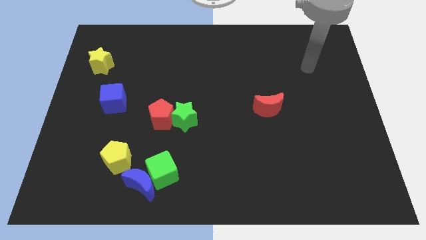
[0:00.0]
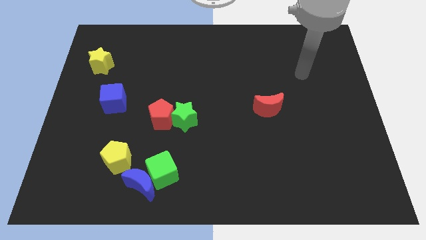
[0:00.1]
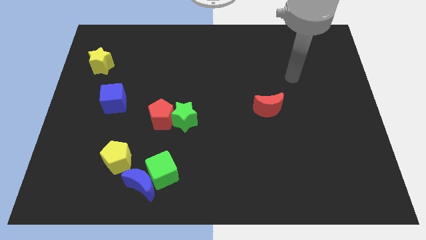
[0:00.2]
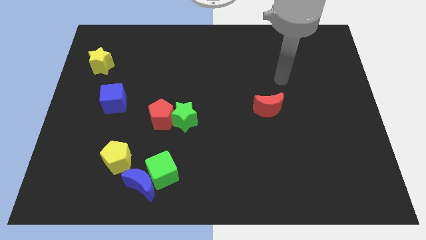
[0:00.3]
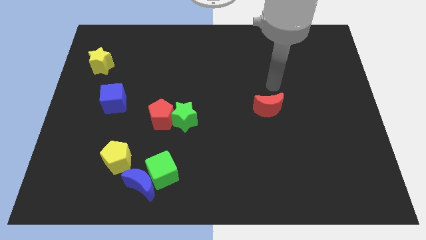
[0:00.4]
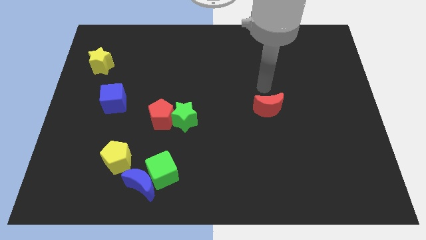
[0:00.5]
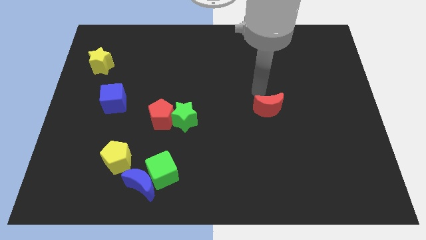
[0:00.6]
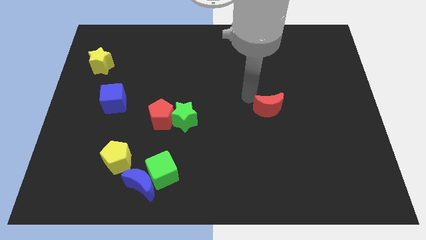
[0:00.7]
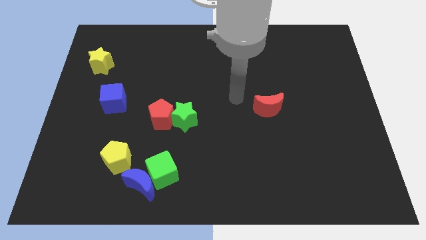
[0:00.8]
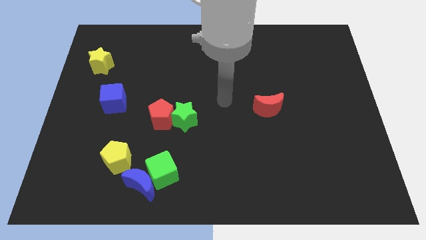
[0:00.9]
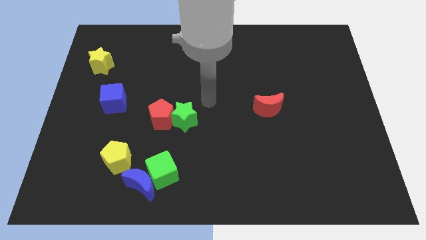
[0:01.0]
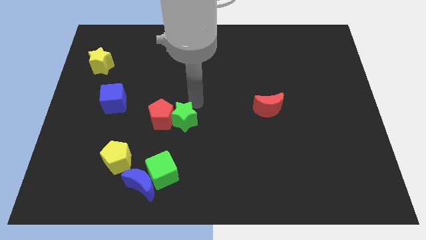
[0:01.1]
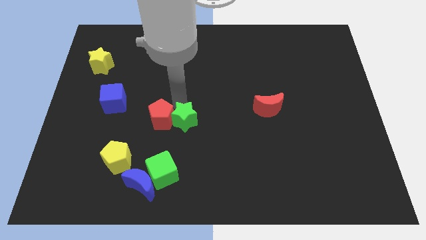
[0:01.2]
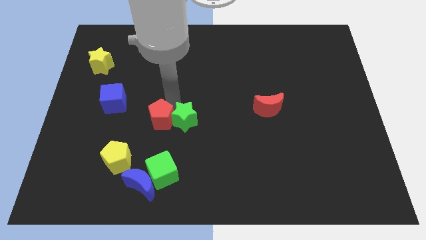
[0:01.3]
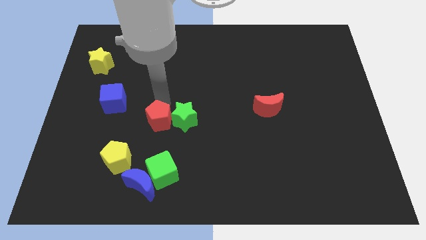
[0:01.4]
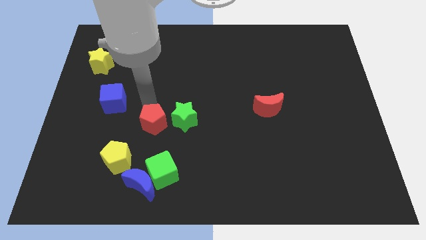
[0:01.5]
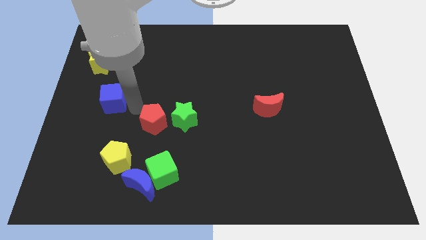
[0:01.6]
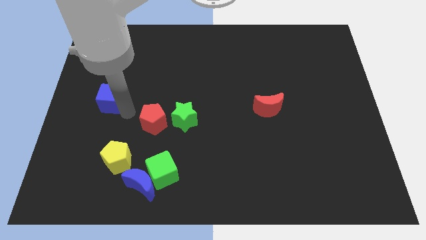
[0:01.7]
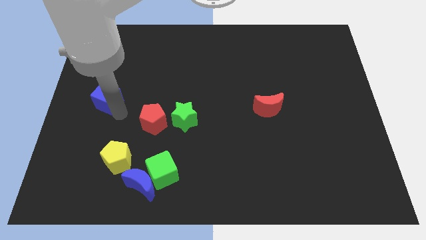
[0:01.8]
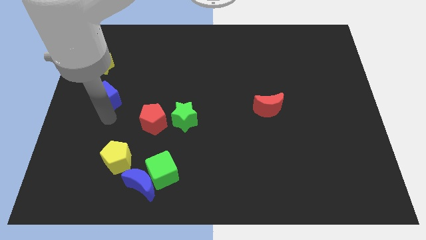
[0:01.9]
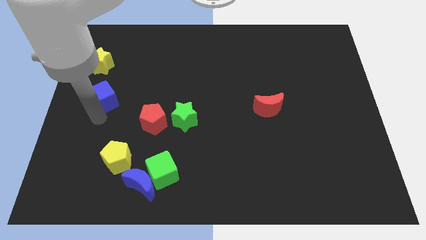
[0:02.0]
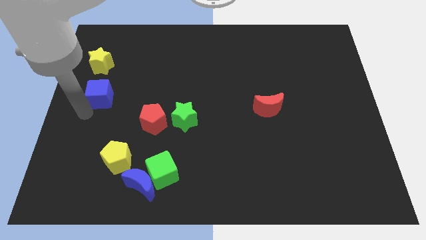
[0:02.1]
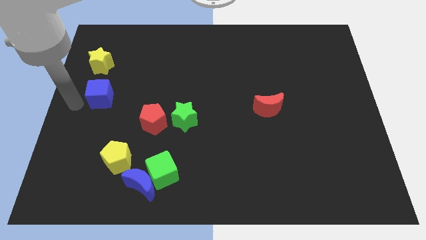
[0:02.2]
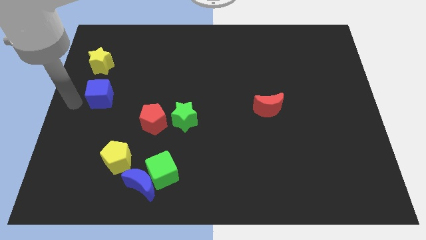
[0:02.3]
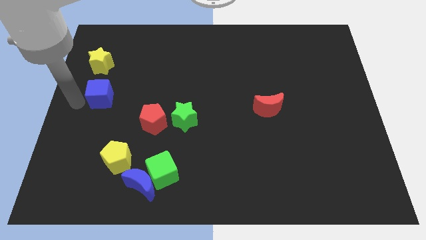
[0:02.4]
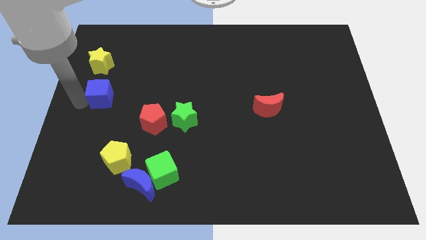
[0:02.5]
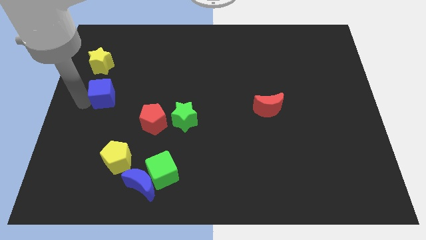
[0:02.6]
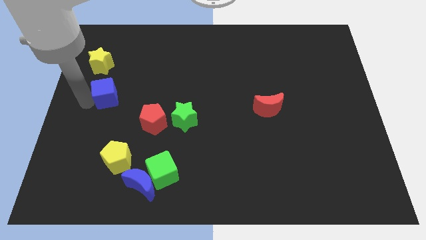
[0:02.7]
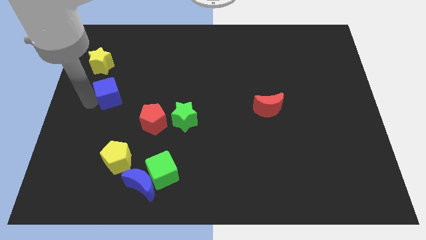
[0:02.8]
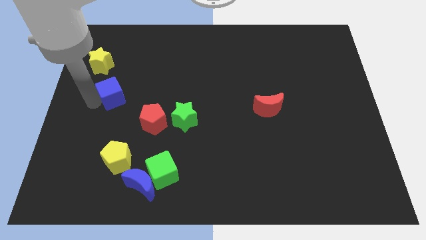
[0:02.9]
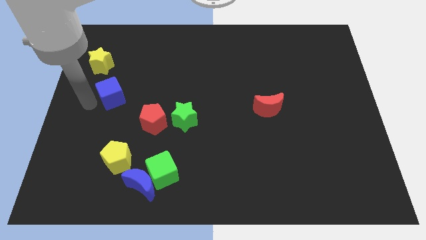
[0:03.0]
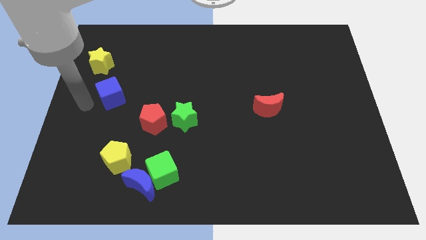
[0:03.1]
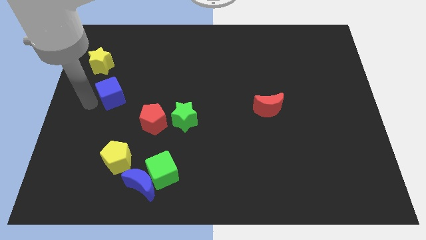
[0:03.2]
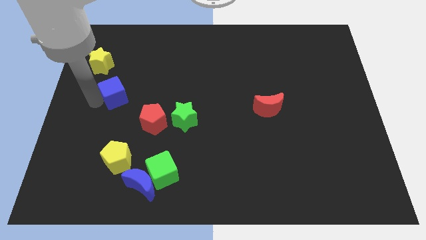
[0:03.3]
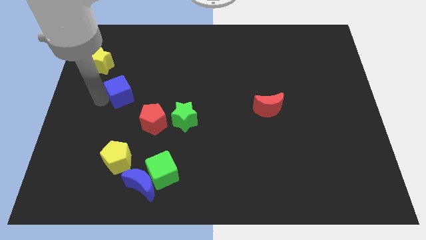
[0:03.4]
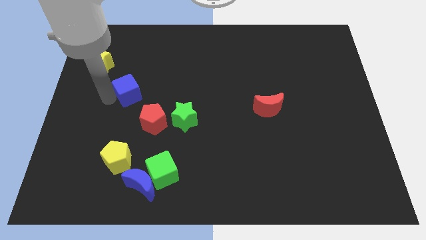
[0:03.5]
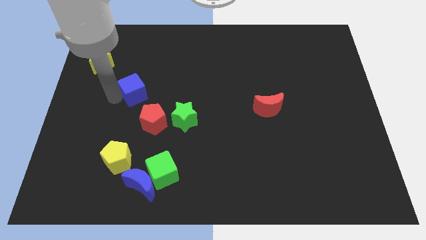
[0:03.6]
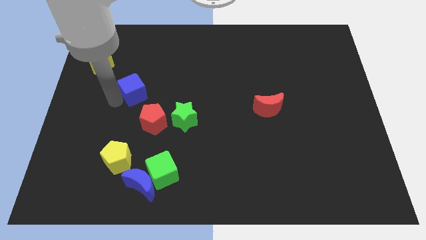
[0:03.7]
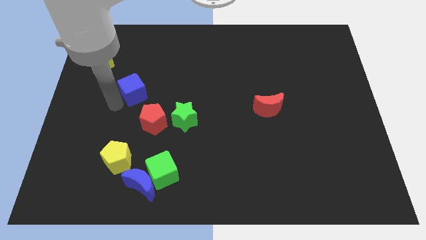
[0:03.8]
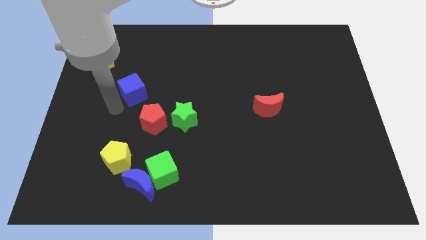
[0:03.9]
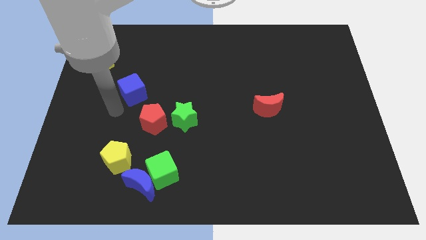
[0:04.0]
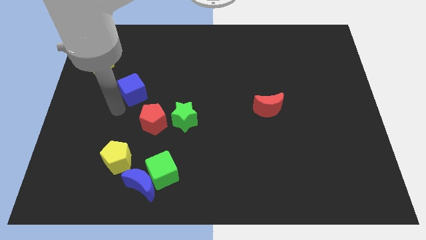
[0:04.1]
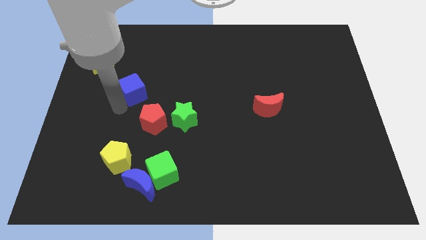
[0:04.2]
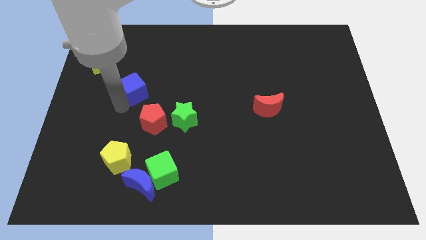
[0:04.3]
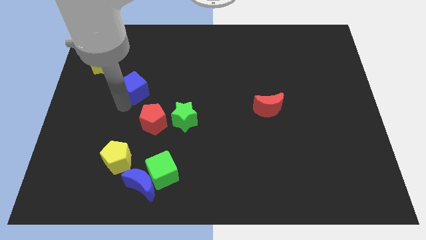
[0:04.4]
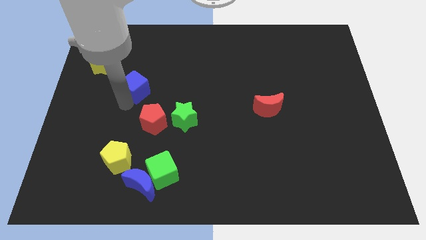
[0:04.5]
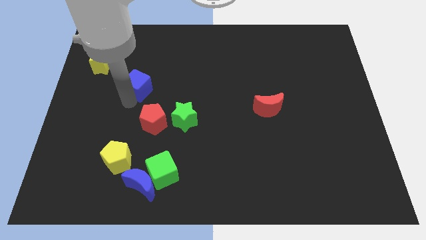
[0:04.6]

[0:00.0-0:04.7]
move the blue cube diagonally up and to the right somewhat

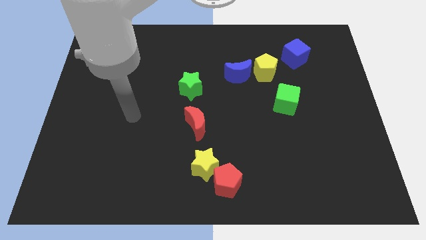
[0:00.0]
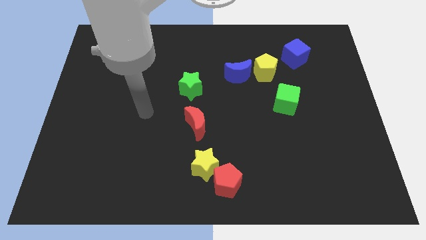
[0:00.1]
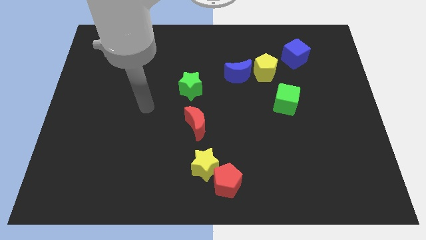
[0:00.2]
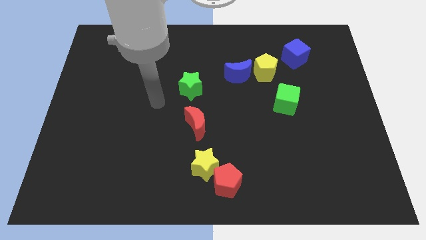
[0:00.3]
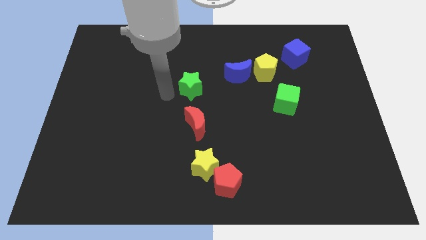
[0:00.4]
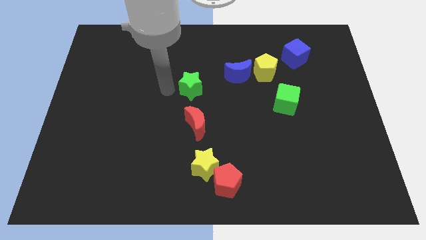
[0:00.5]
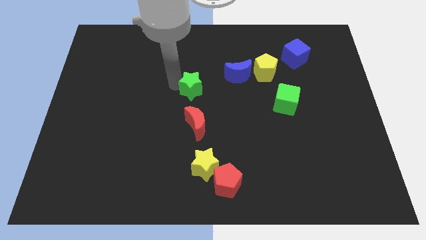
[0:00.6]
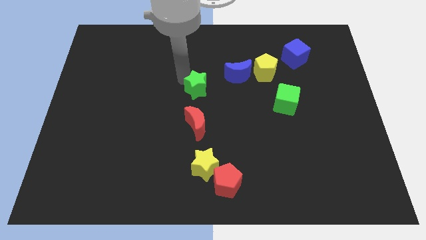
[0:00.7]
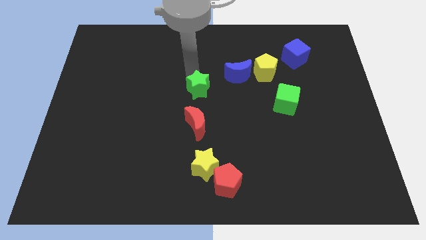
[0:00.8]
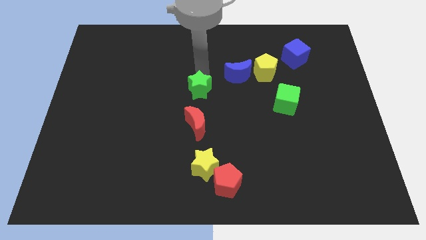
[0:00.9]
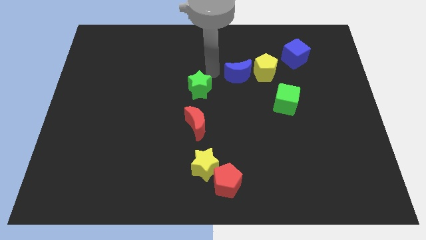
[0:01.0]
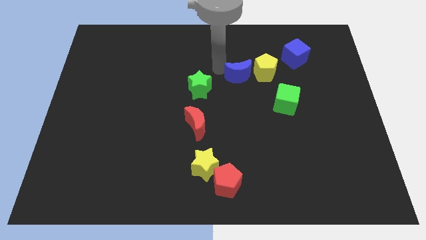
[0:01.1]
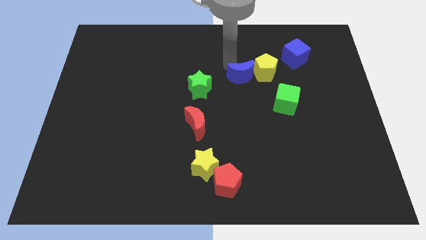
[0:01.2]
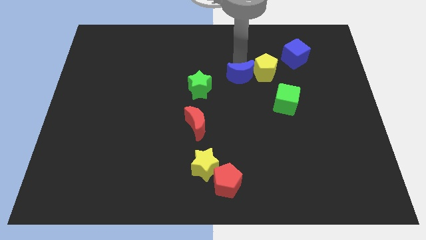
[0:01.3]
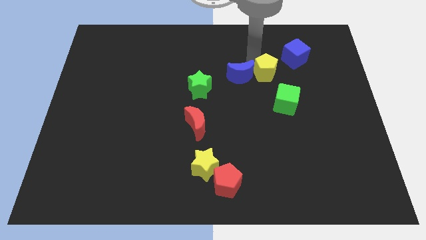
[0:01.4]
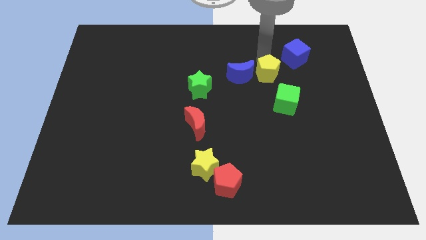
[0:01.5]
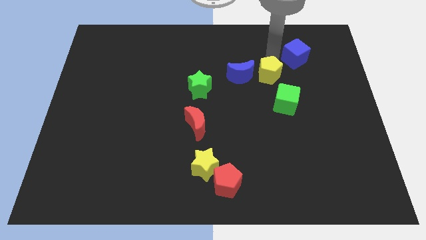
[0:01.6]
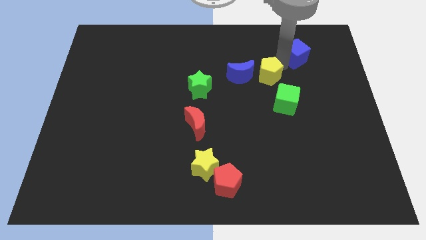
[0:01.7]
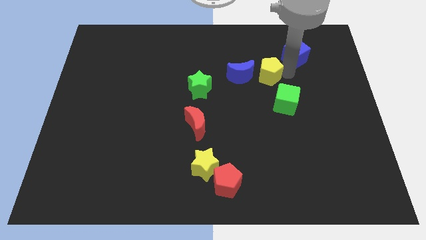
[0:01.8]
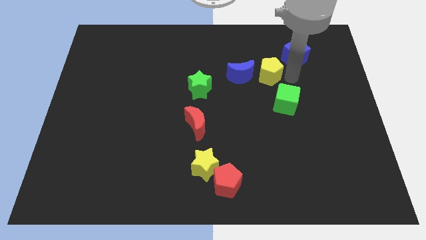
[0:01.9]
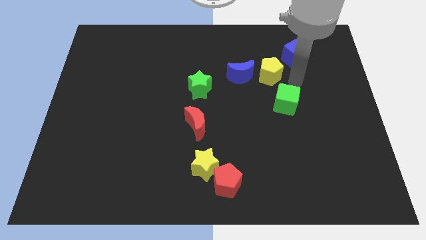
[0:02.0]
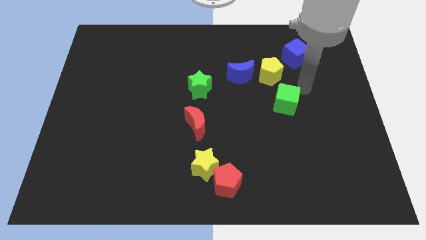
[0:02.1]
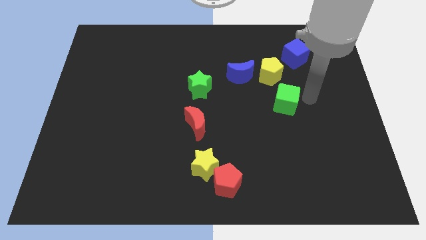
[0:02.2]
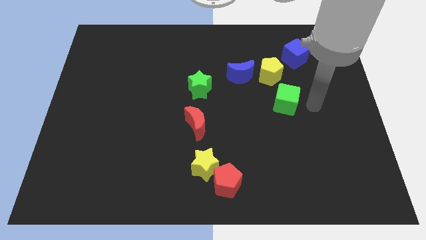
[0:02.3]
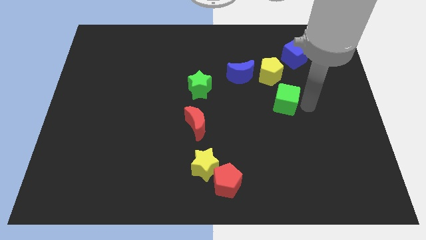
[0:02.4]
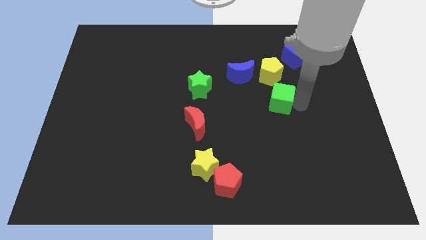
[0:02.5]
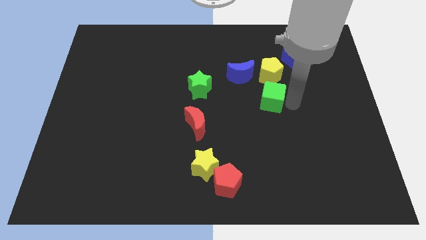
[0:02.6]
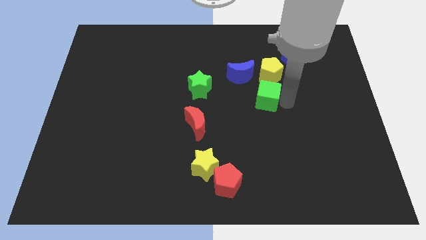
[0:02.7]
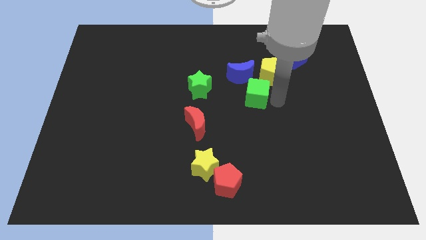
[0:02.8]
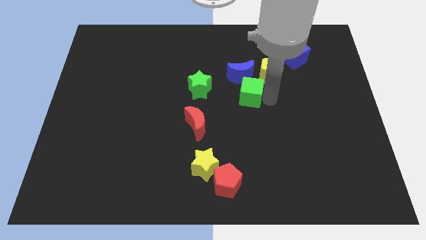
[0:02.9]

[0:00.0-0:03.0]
move the green cube diagonally up and left a little bit
